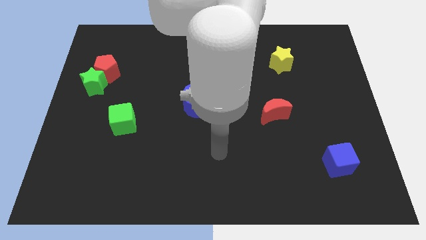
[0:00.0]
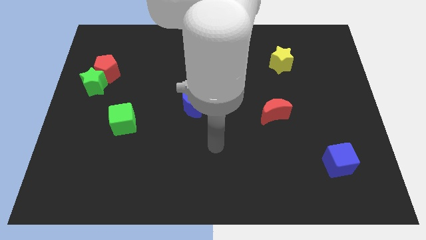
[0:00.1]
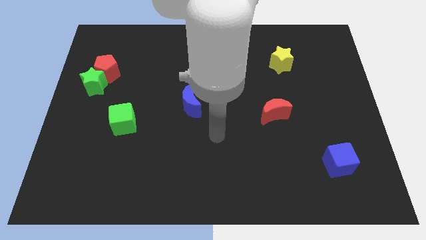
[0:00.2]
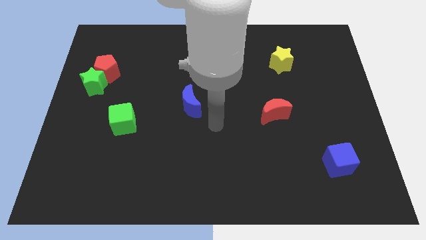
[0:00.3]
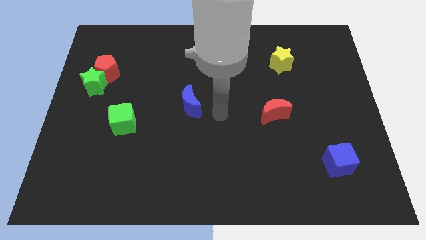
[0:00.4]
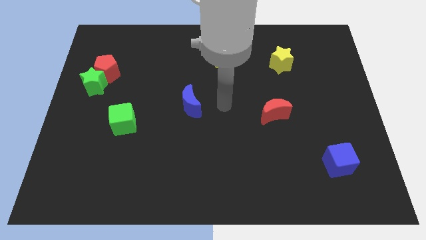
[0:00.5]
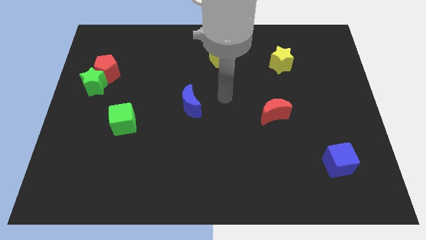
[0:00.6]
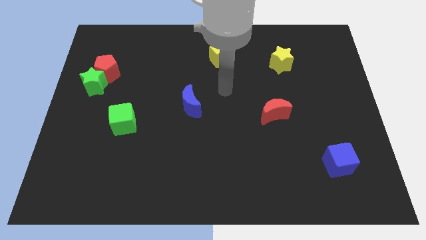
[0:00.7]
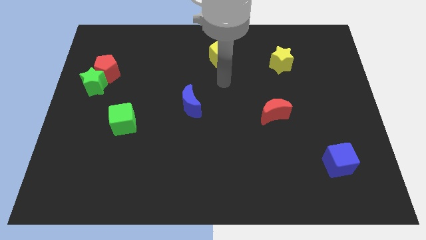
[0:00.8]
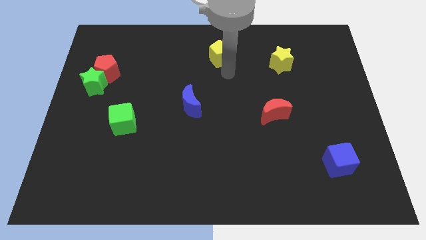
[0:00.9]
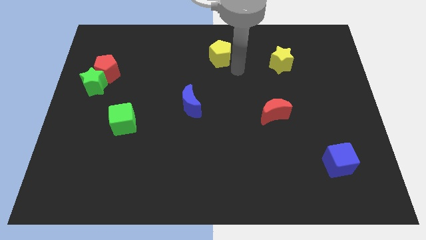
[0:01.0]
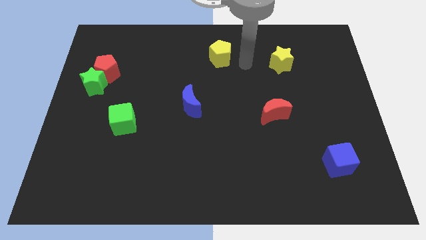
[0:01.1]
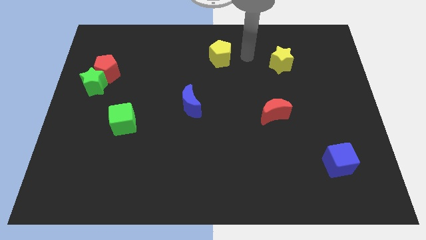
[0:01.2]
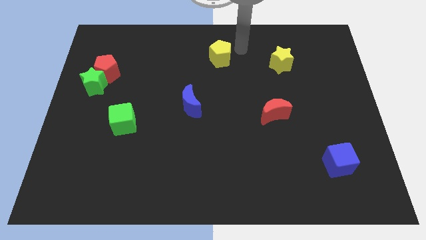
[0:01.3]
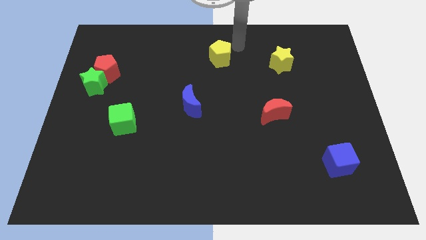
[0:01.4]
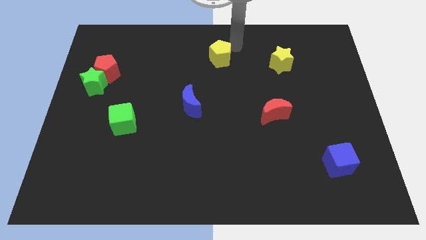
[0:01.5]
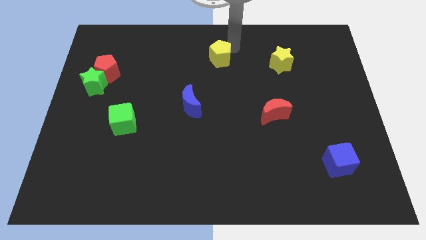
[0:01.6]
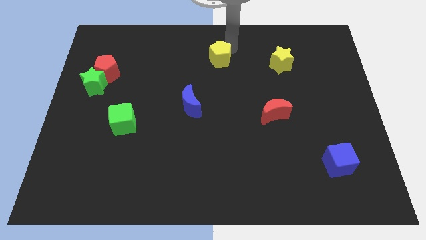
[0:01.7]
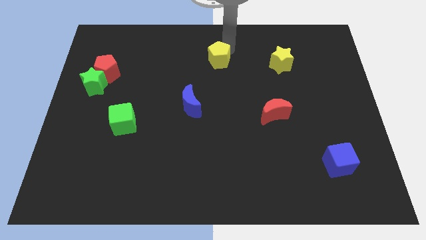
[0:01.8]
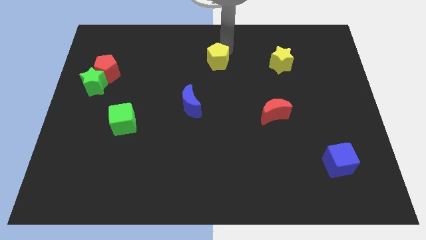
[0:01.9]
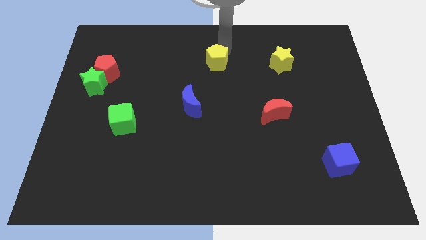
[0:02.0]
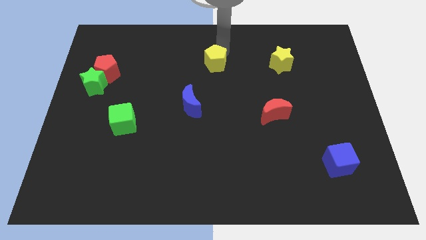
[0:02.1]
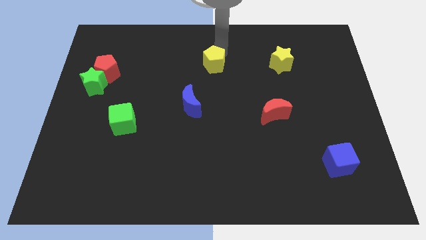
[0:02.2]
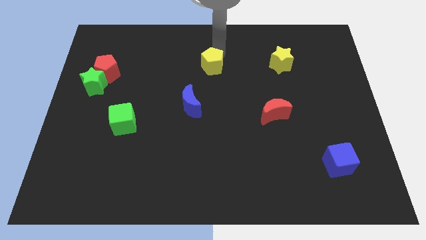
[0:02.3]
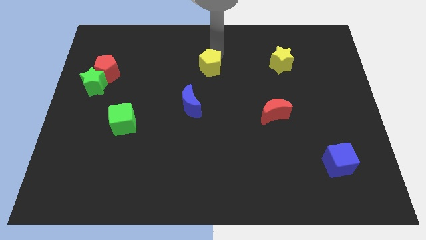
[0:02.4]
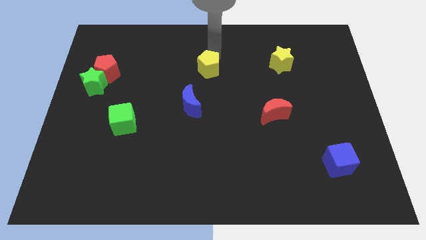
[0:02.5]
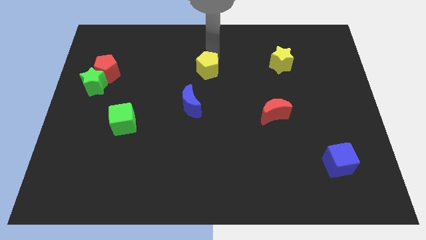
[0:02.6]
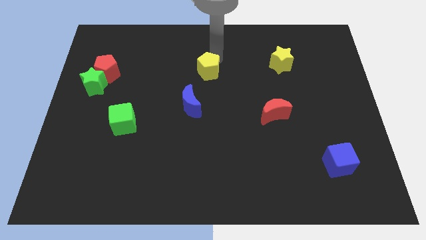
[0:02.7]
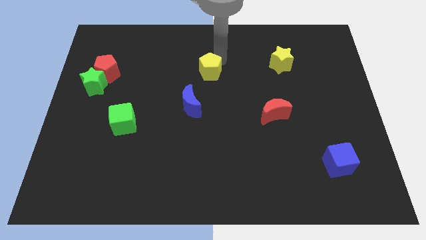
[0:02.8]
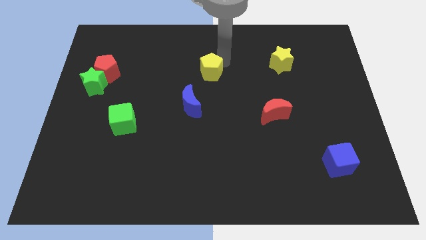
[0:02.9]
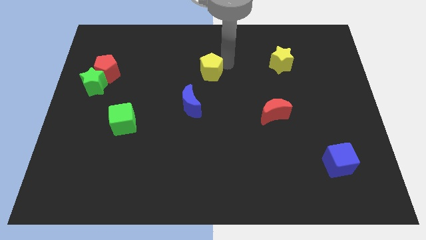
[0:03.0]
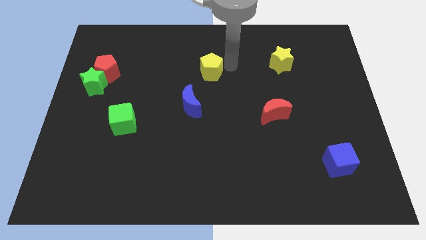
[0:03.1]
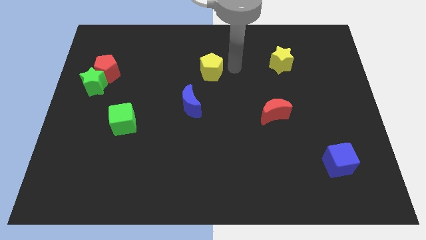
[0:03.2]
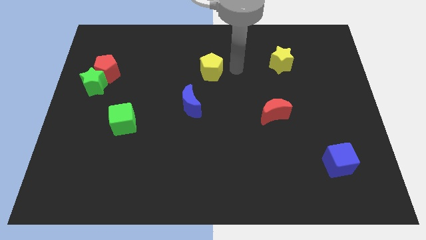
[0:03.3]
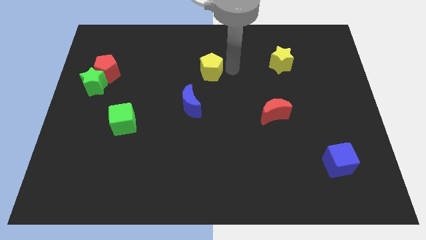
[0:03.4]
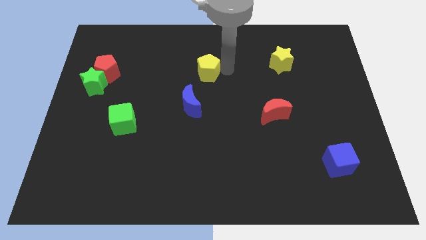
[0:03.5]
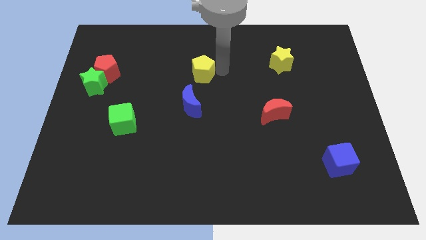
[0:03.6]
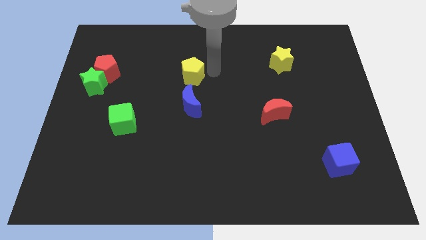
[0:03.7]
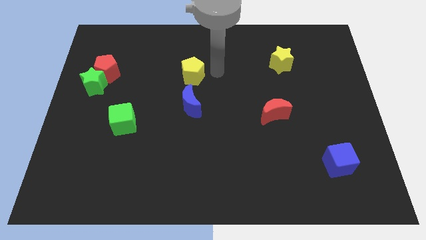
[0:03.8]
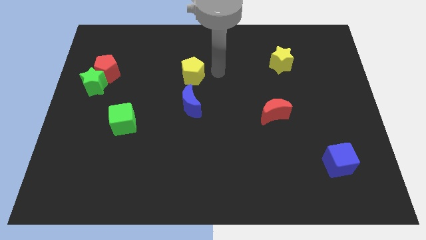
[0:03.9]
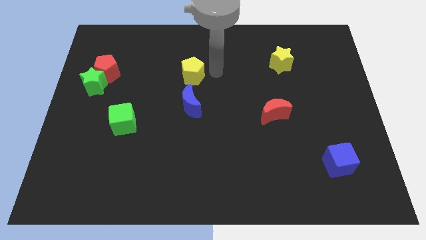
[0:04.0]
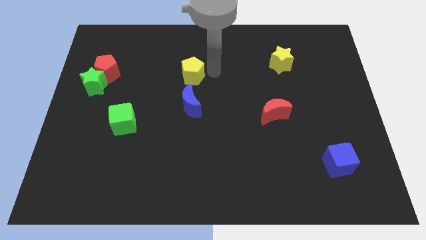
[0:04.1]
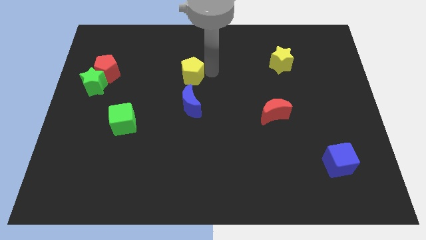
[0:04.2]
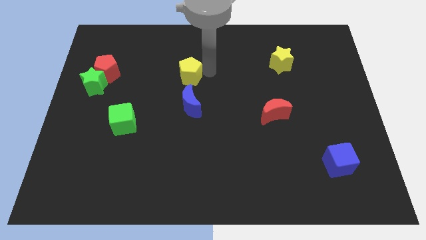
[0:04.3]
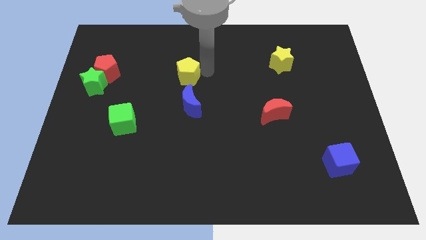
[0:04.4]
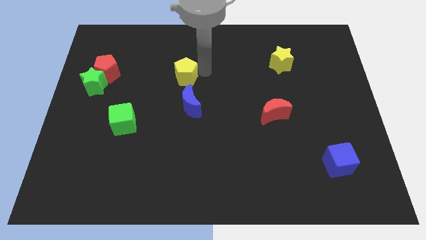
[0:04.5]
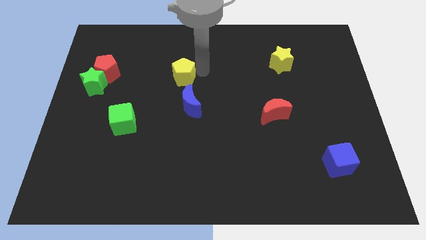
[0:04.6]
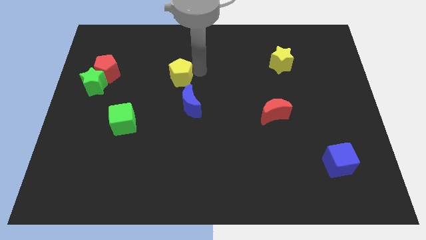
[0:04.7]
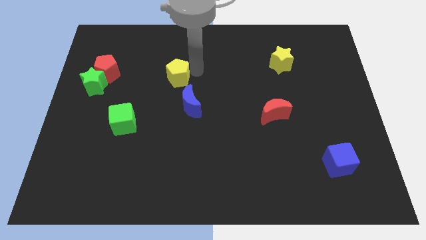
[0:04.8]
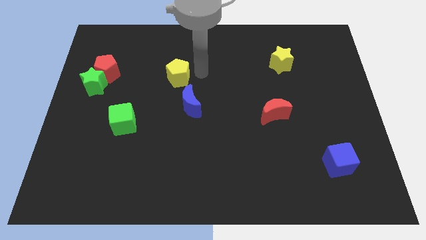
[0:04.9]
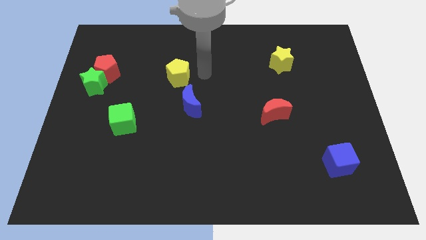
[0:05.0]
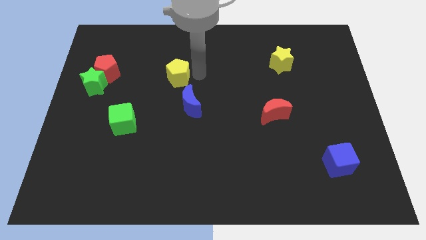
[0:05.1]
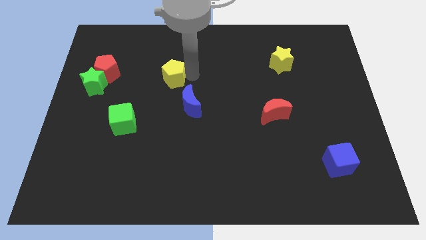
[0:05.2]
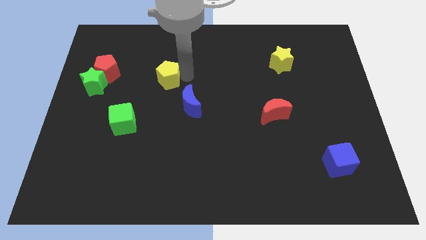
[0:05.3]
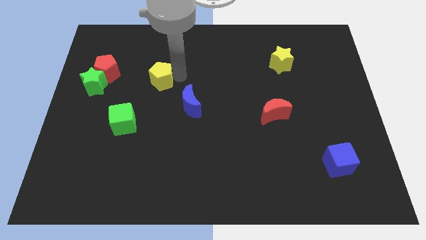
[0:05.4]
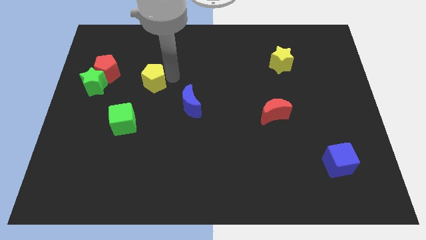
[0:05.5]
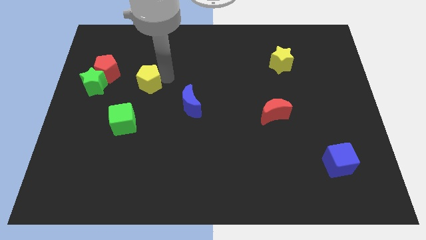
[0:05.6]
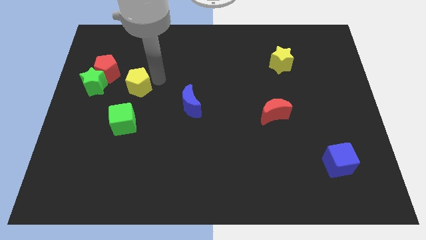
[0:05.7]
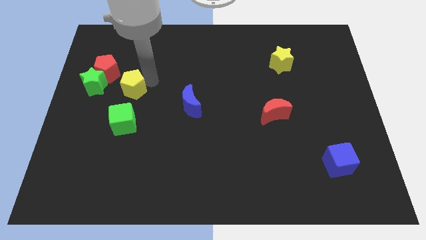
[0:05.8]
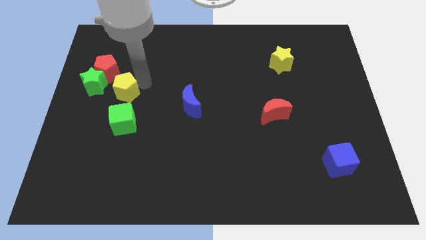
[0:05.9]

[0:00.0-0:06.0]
move the yellow pentagon to the bottom right side of the green star

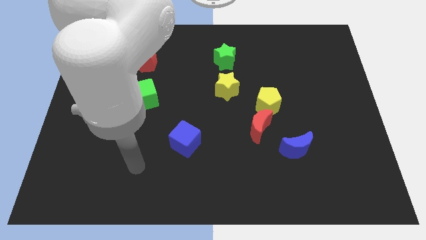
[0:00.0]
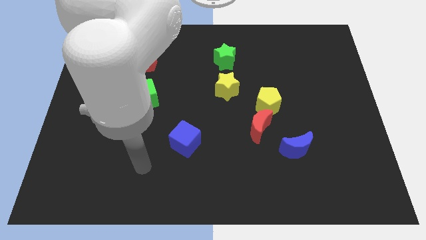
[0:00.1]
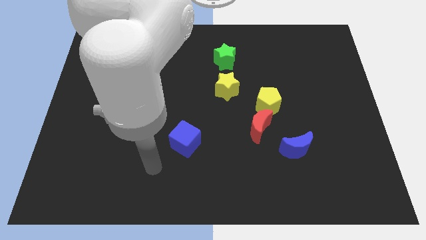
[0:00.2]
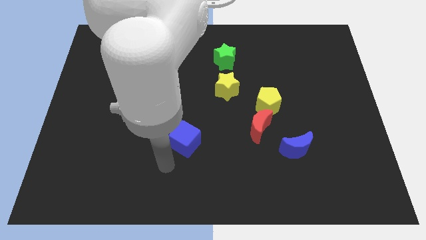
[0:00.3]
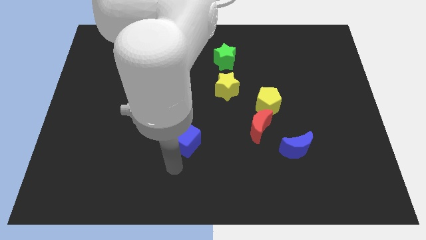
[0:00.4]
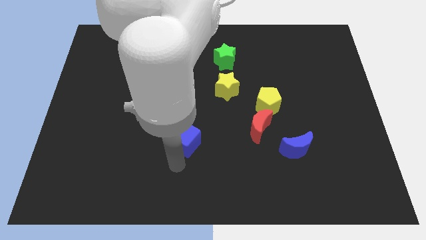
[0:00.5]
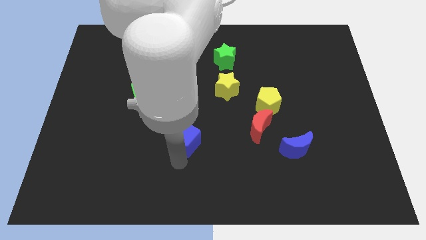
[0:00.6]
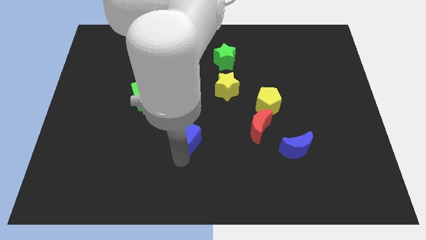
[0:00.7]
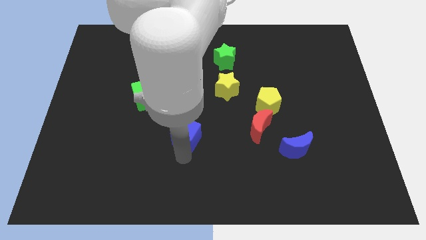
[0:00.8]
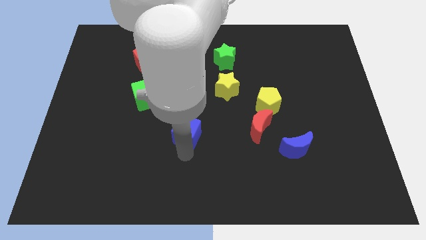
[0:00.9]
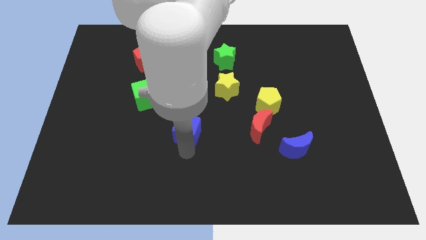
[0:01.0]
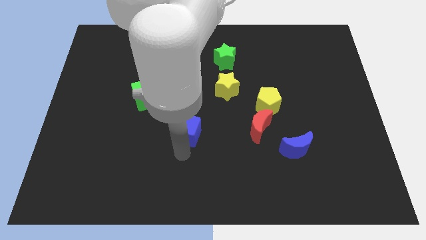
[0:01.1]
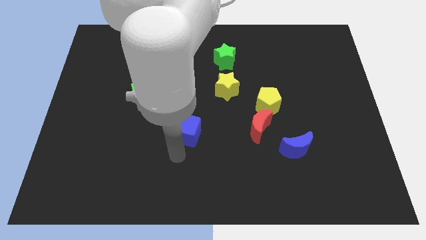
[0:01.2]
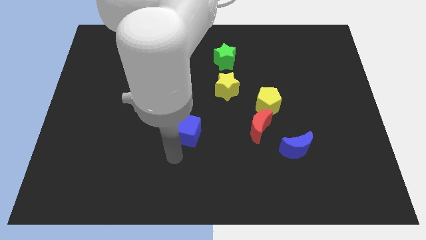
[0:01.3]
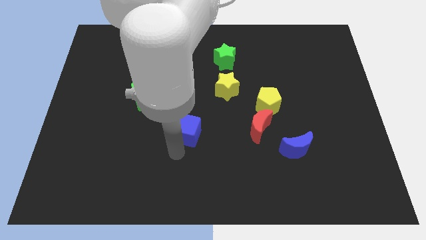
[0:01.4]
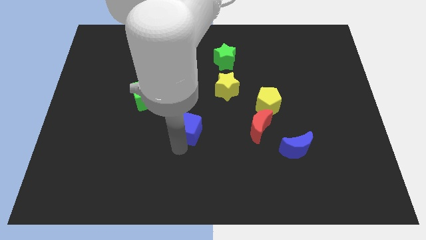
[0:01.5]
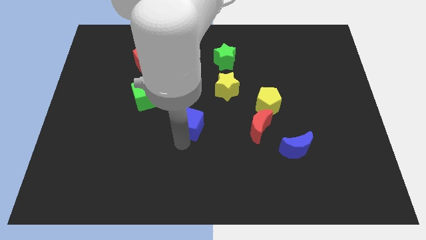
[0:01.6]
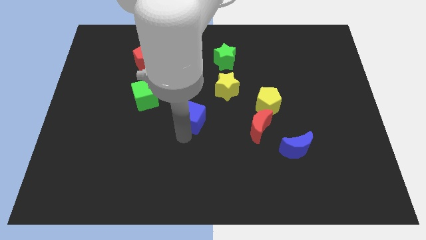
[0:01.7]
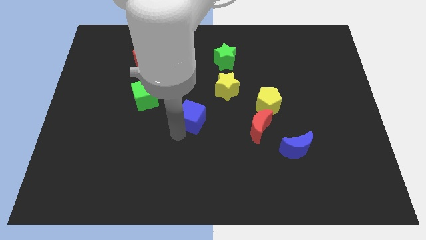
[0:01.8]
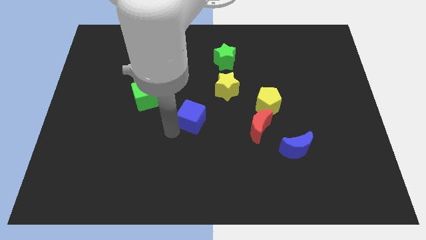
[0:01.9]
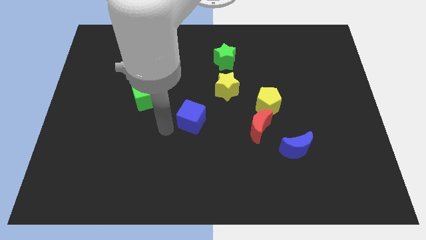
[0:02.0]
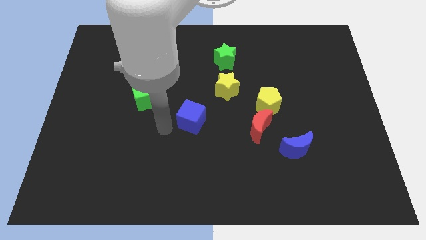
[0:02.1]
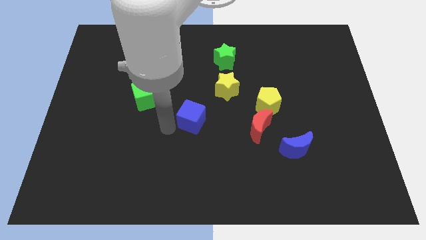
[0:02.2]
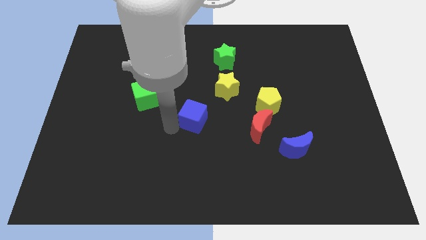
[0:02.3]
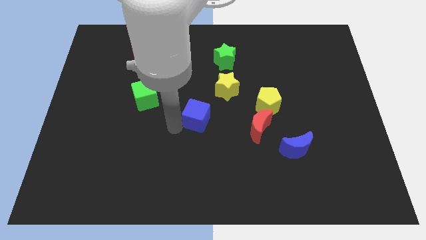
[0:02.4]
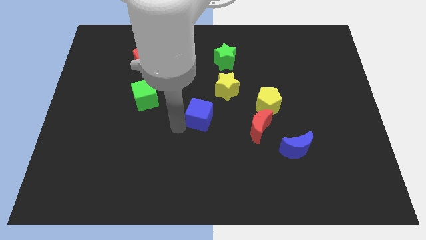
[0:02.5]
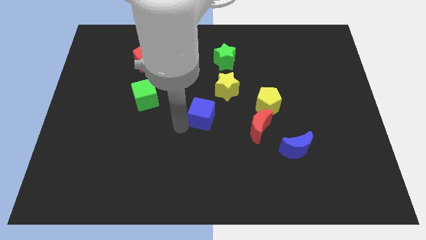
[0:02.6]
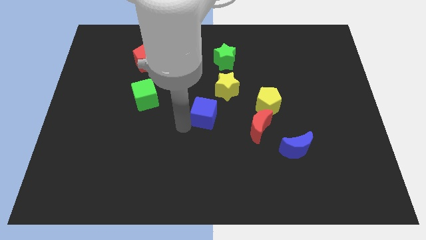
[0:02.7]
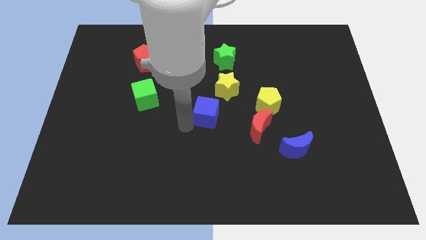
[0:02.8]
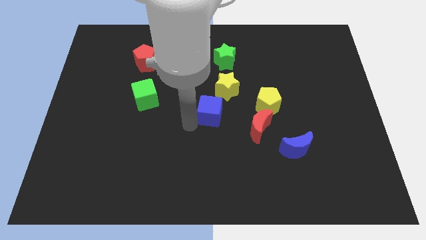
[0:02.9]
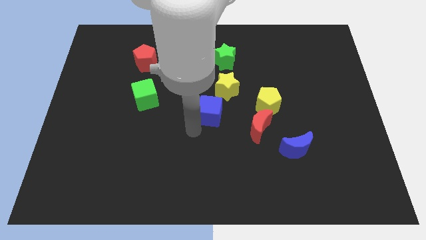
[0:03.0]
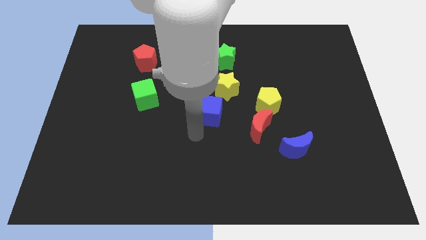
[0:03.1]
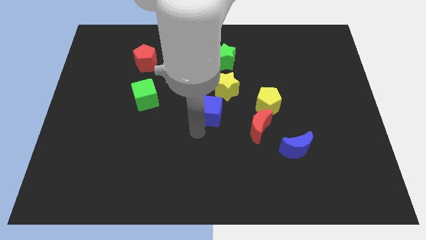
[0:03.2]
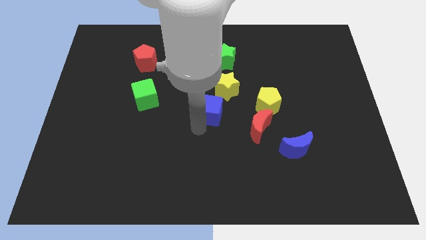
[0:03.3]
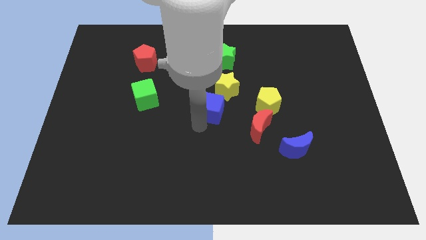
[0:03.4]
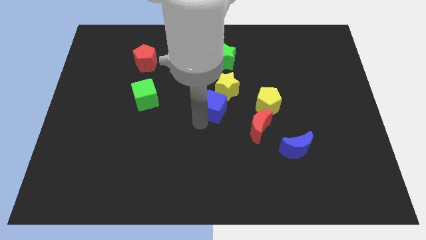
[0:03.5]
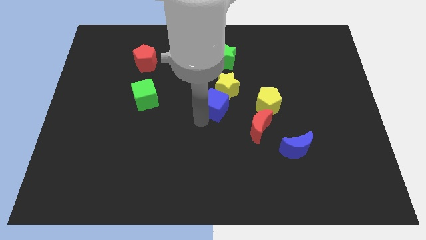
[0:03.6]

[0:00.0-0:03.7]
slide the blue cube to the bottom of the green star
